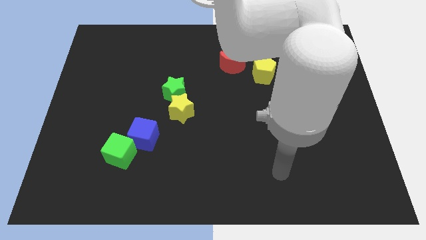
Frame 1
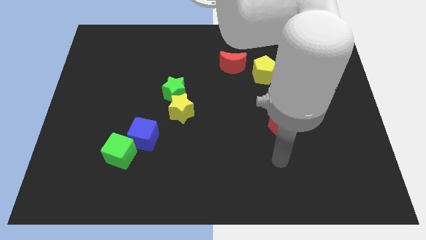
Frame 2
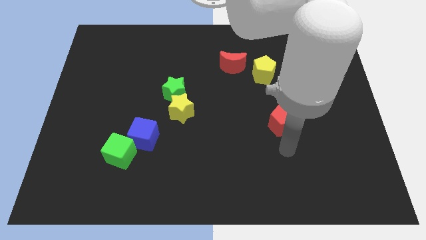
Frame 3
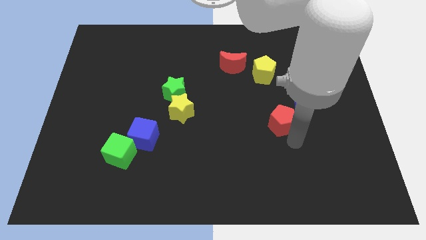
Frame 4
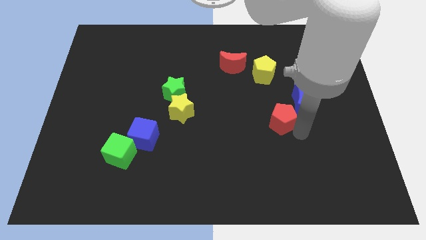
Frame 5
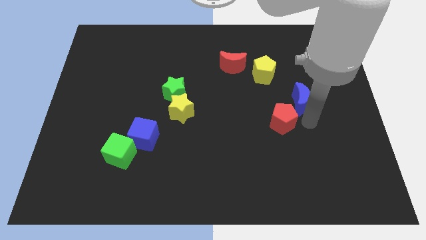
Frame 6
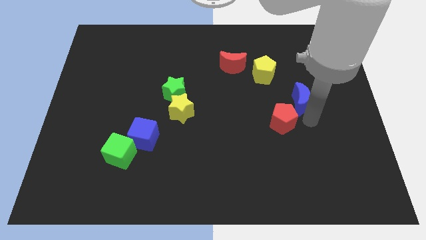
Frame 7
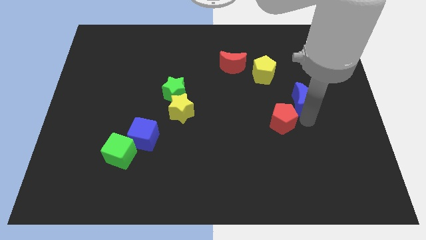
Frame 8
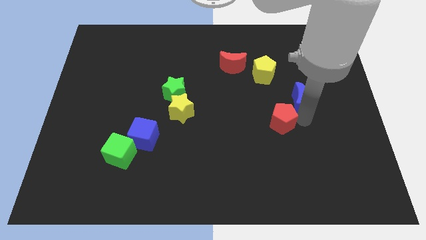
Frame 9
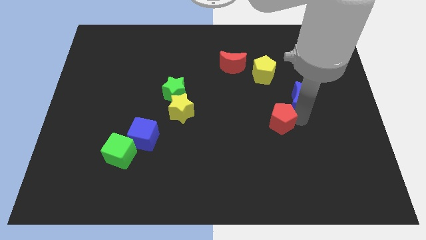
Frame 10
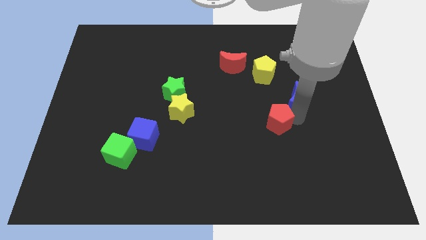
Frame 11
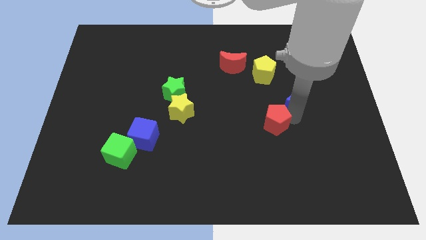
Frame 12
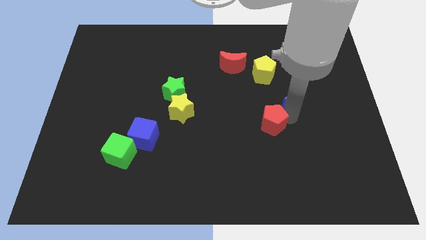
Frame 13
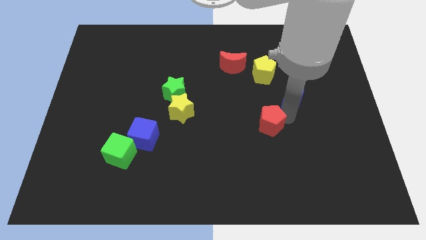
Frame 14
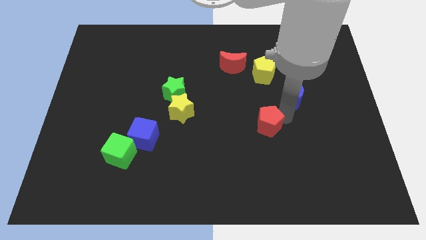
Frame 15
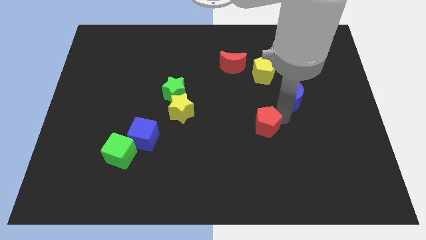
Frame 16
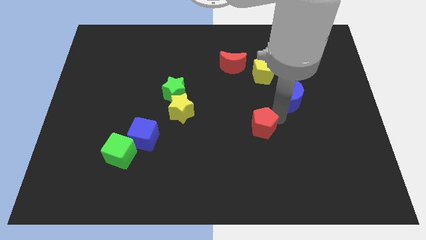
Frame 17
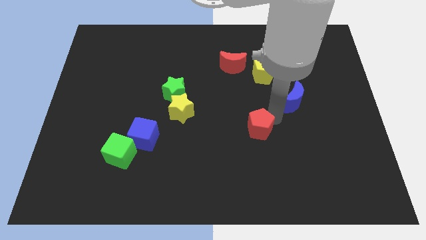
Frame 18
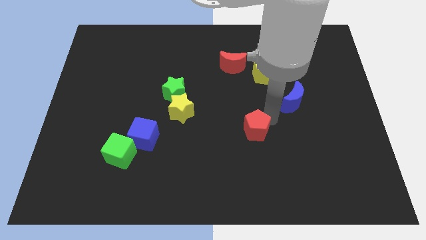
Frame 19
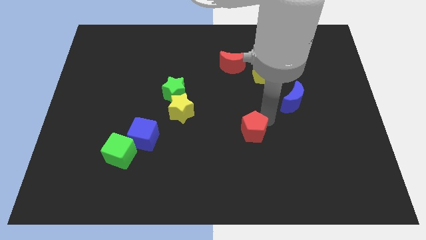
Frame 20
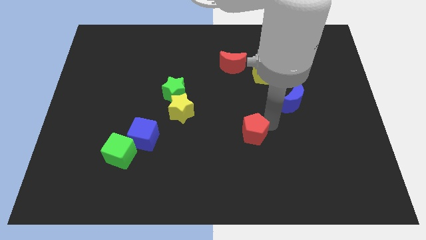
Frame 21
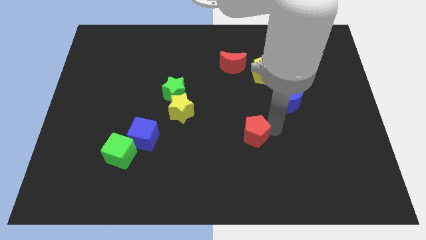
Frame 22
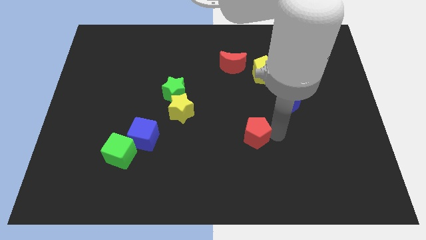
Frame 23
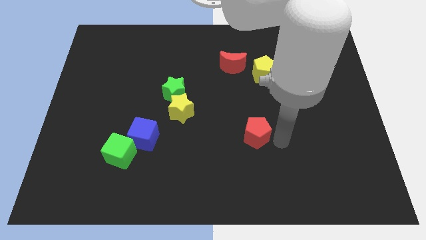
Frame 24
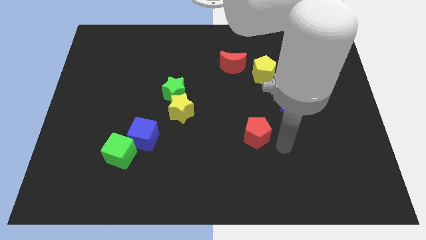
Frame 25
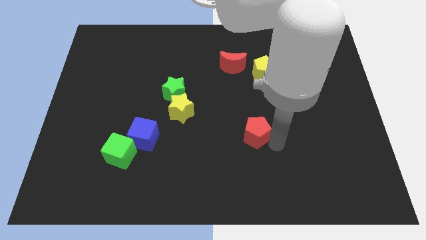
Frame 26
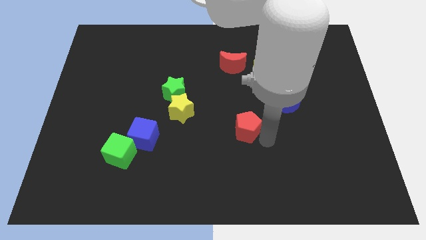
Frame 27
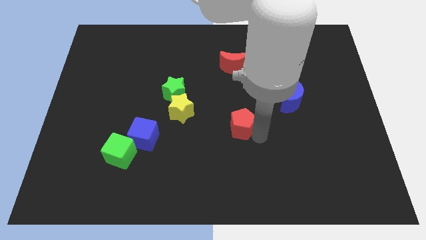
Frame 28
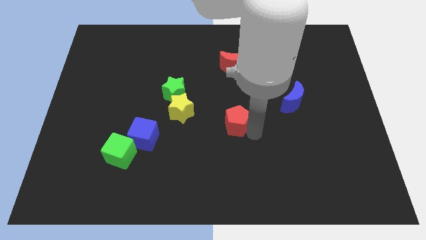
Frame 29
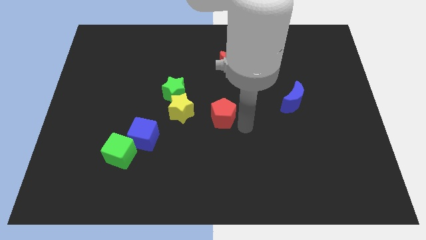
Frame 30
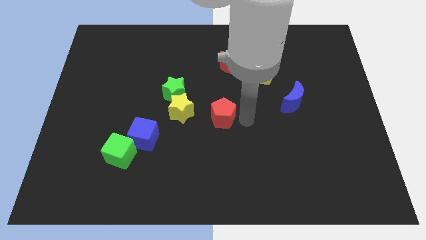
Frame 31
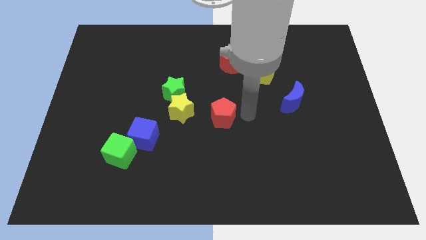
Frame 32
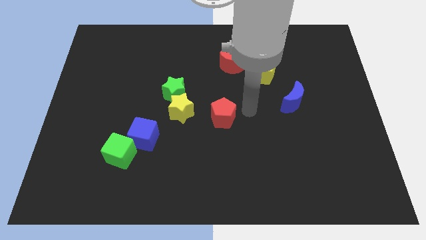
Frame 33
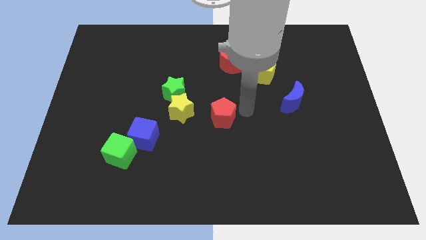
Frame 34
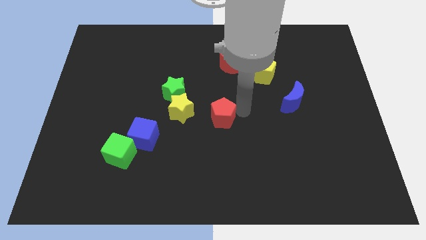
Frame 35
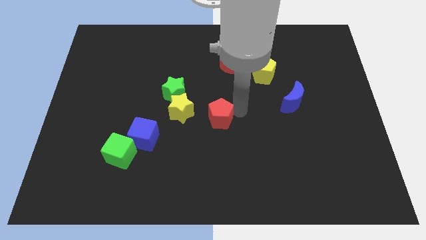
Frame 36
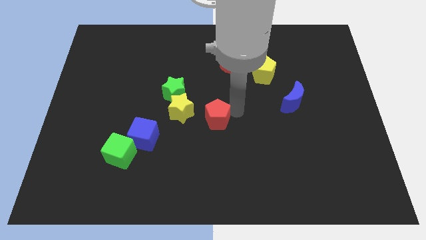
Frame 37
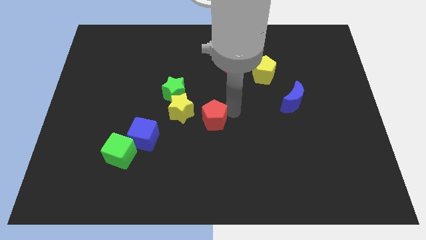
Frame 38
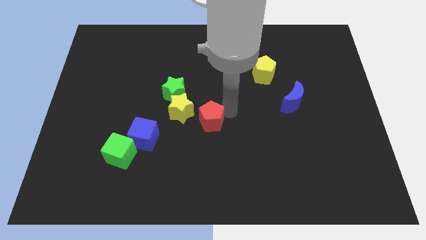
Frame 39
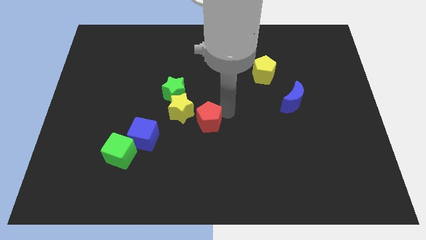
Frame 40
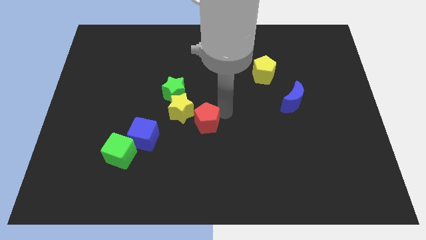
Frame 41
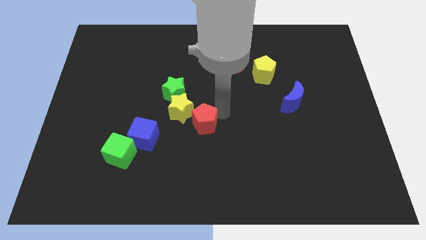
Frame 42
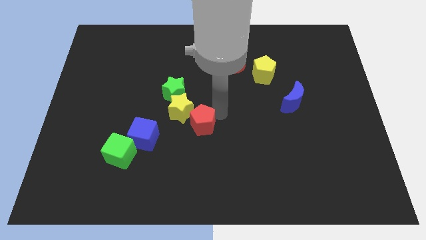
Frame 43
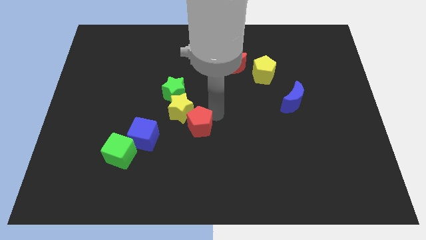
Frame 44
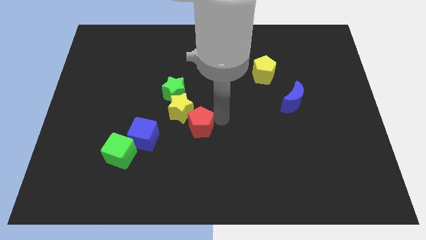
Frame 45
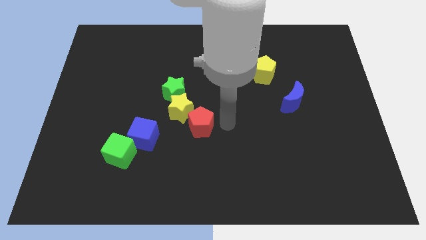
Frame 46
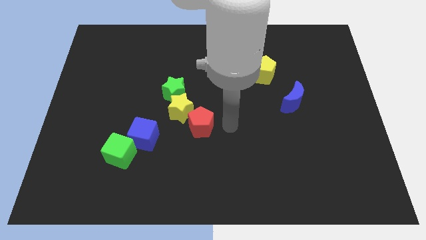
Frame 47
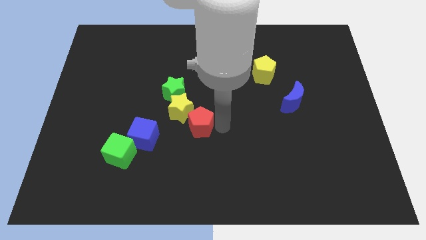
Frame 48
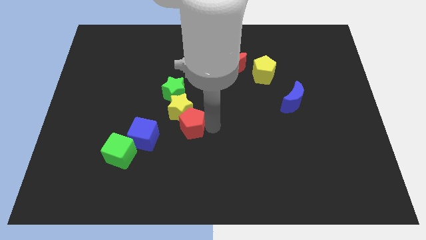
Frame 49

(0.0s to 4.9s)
push the red pentagon to the left

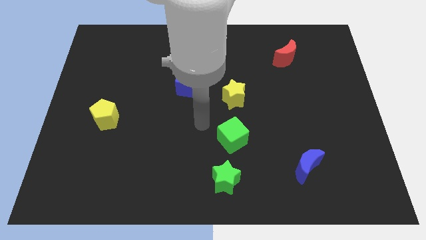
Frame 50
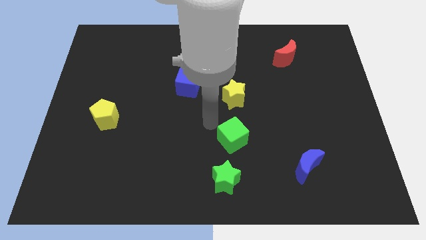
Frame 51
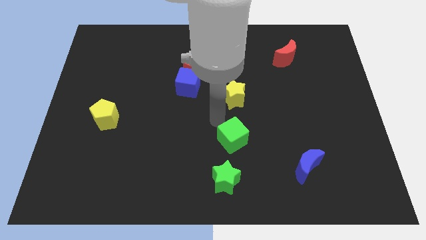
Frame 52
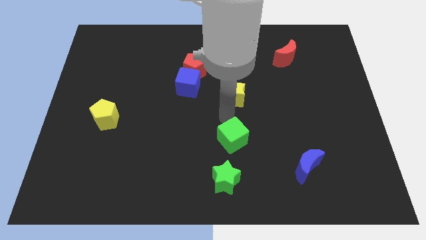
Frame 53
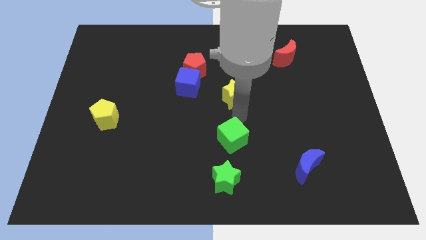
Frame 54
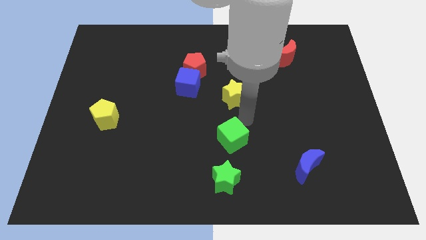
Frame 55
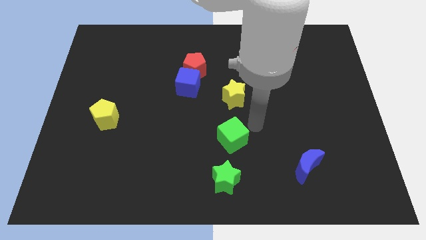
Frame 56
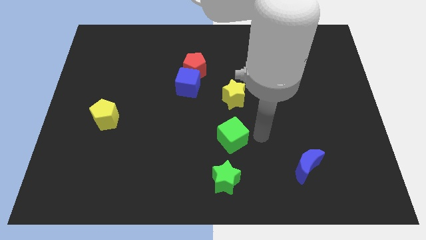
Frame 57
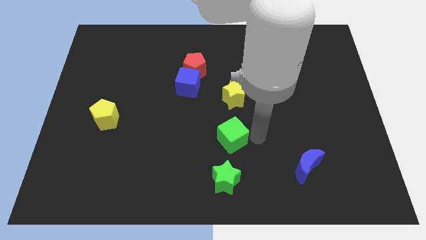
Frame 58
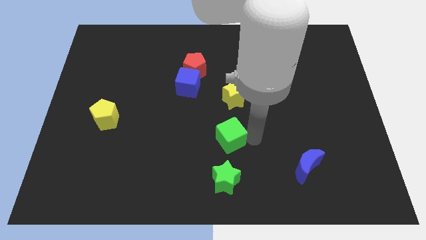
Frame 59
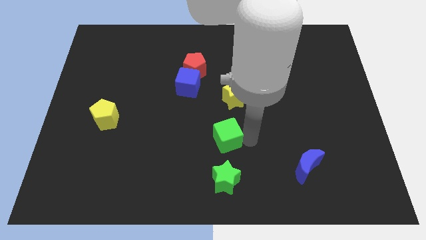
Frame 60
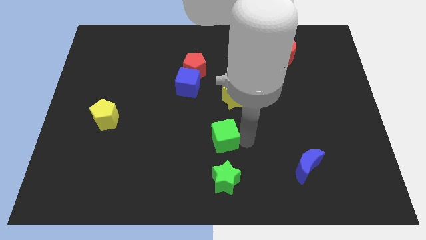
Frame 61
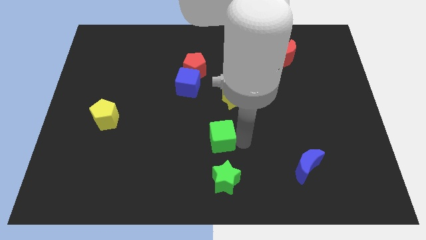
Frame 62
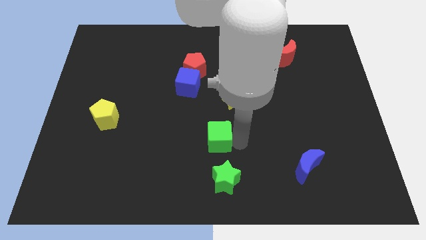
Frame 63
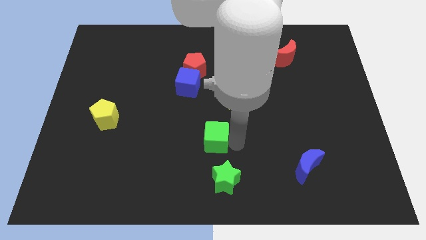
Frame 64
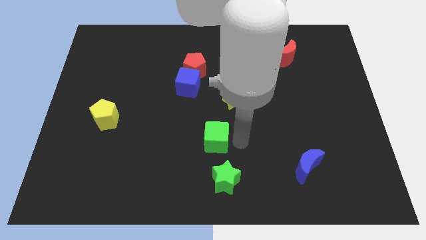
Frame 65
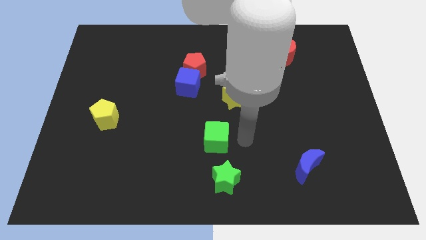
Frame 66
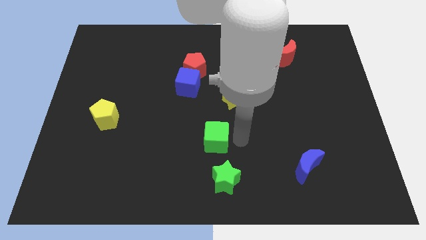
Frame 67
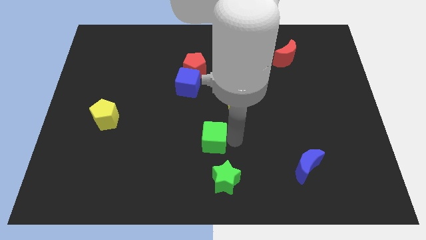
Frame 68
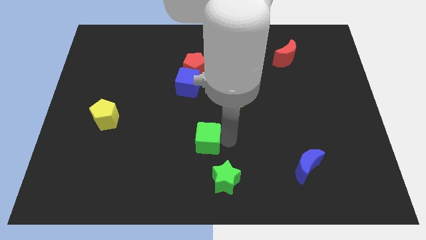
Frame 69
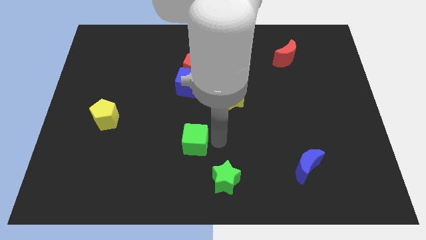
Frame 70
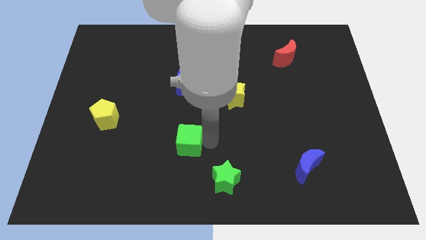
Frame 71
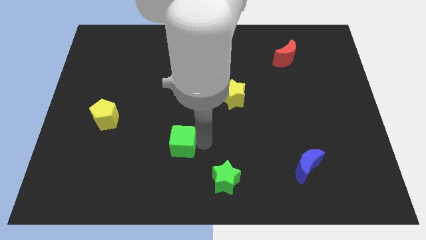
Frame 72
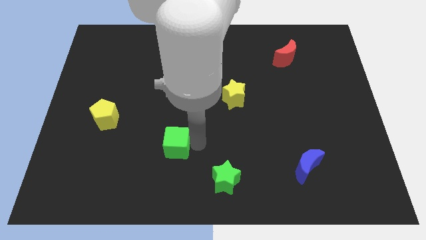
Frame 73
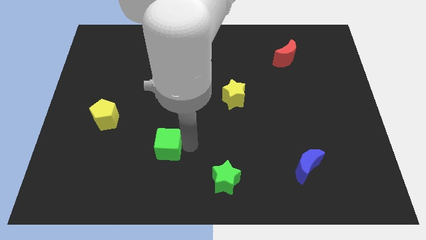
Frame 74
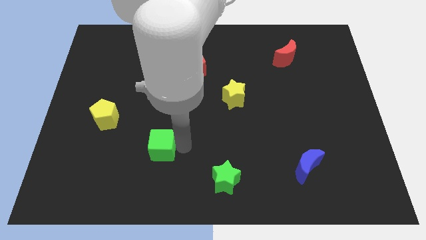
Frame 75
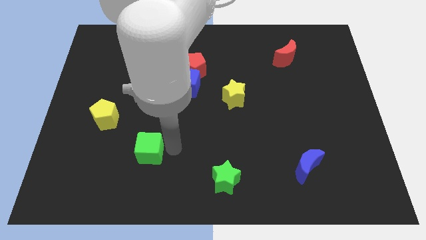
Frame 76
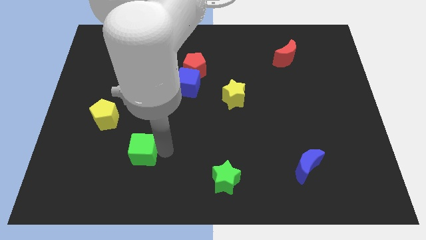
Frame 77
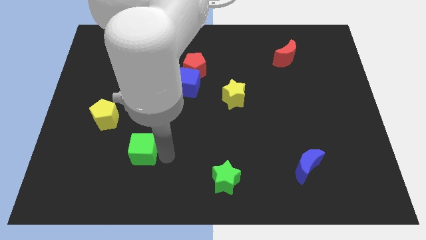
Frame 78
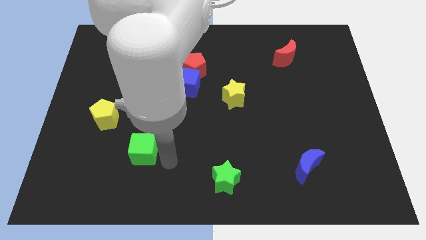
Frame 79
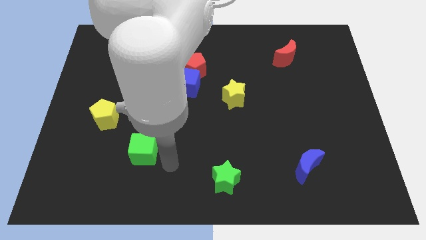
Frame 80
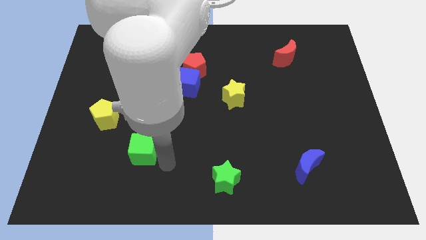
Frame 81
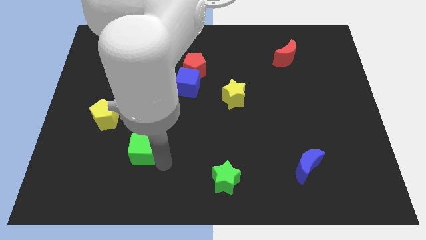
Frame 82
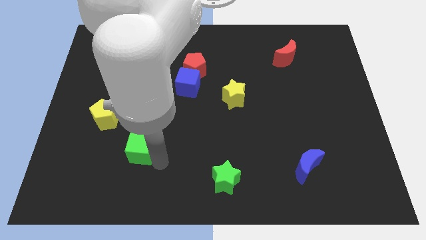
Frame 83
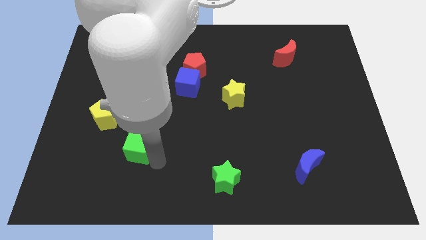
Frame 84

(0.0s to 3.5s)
move the green cube left
